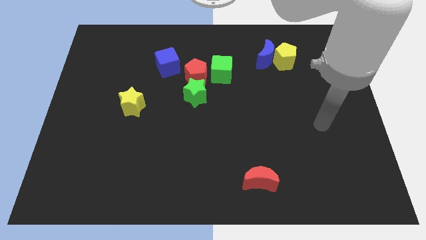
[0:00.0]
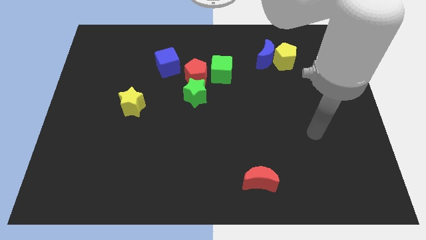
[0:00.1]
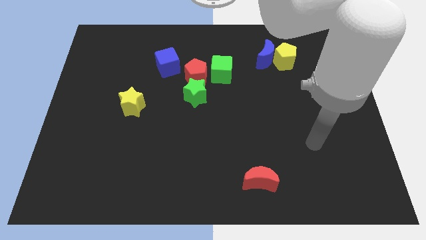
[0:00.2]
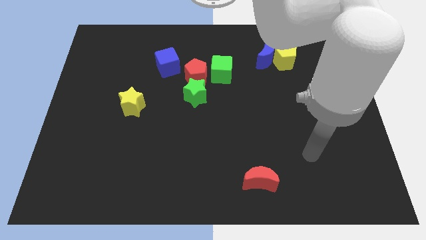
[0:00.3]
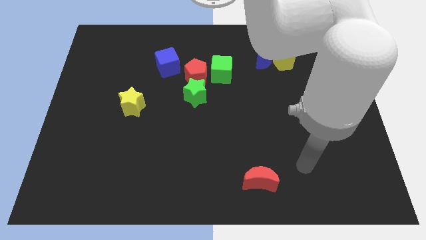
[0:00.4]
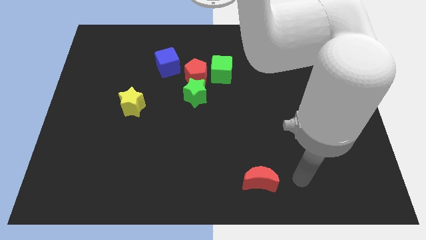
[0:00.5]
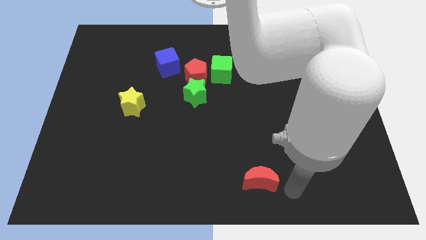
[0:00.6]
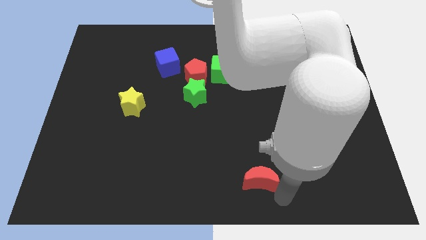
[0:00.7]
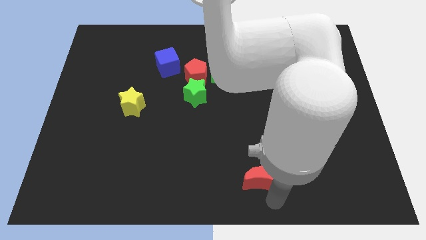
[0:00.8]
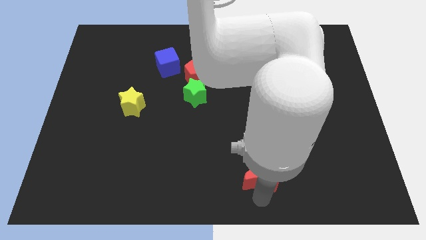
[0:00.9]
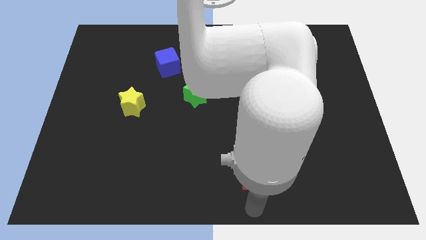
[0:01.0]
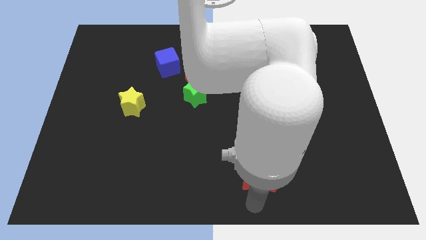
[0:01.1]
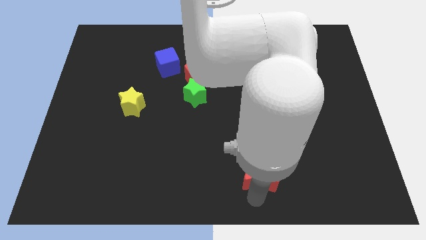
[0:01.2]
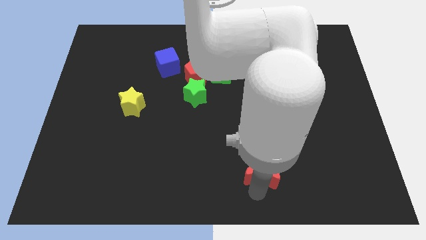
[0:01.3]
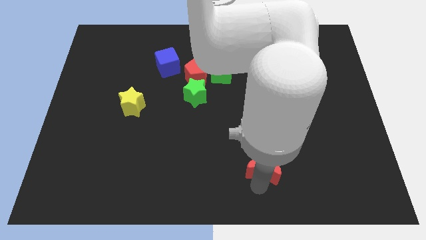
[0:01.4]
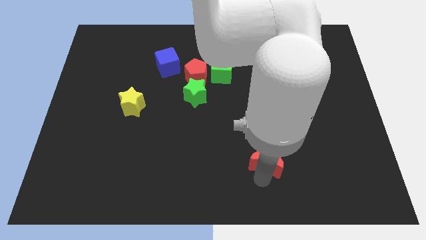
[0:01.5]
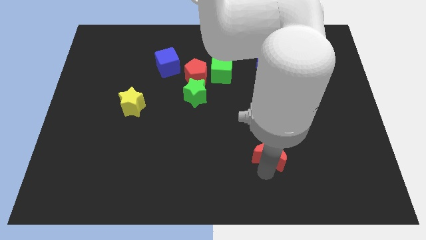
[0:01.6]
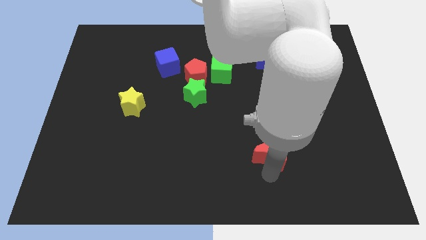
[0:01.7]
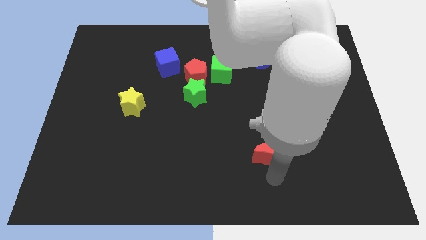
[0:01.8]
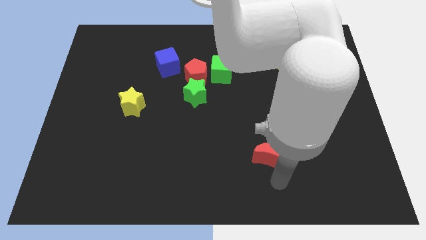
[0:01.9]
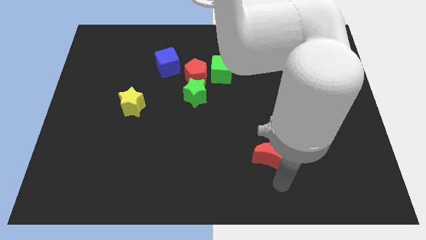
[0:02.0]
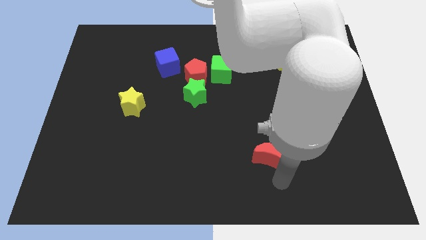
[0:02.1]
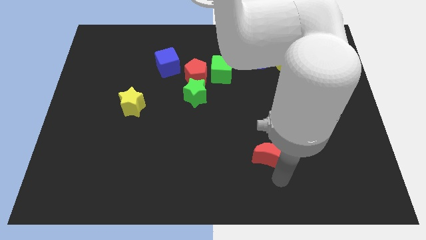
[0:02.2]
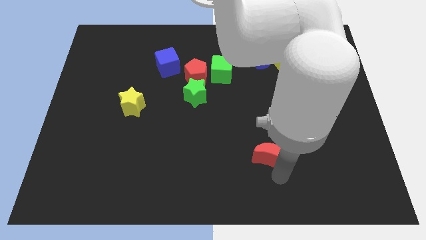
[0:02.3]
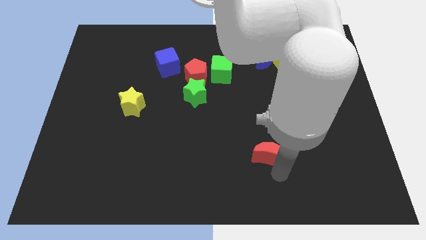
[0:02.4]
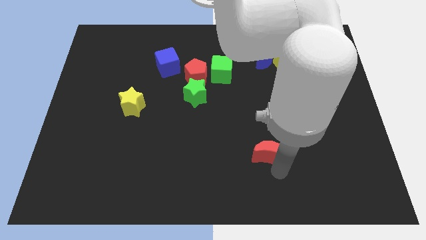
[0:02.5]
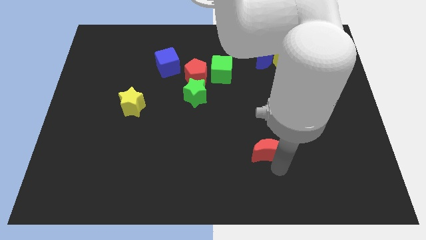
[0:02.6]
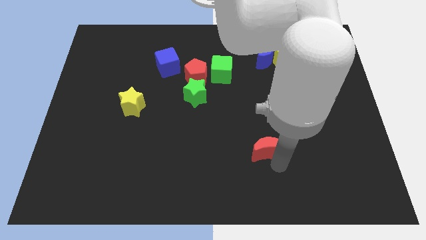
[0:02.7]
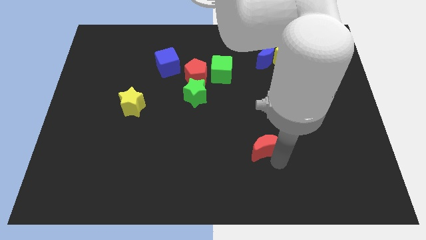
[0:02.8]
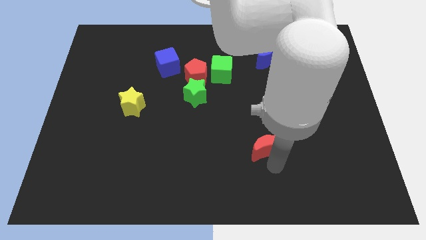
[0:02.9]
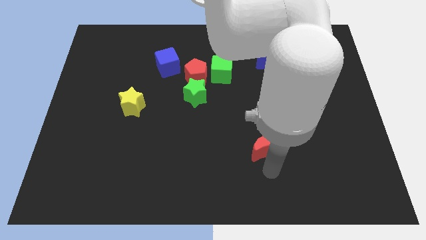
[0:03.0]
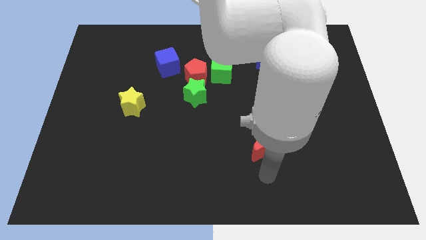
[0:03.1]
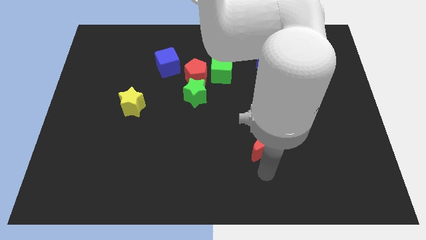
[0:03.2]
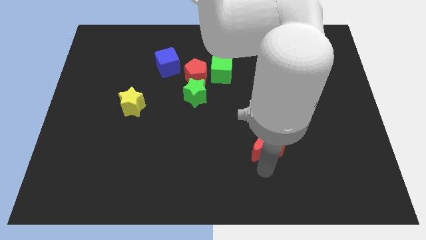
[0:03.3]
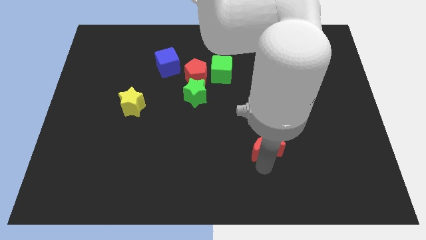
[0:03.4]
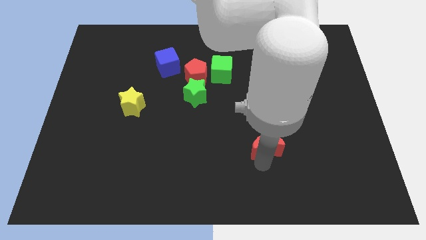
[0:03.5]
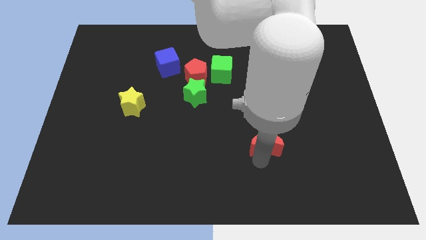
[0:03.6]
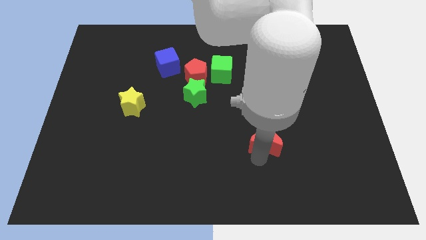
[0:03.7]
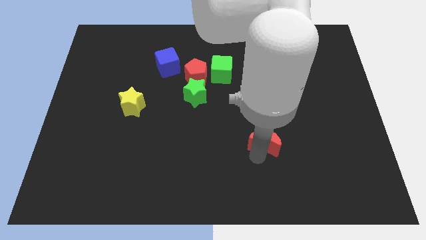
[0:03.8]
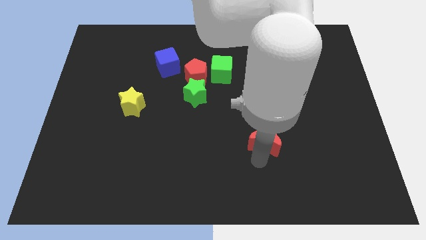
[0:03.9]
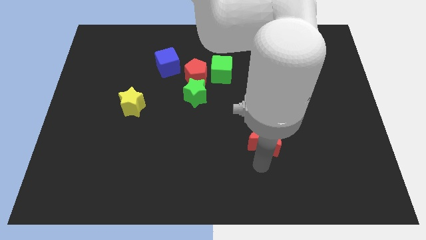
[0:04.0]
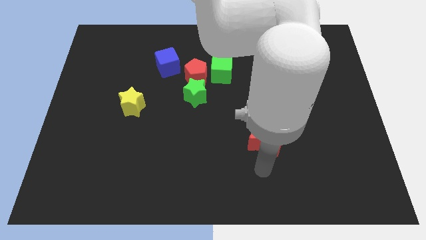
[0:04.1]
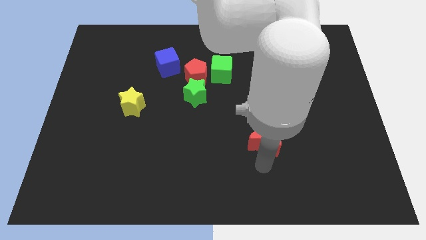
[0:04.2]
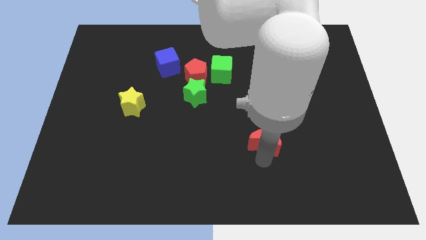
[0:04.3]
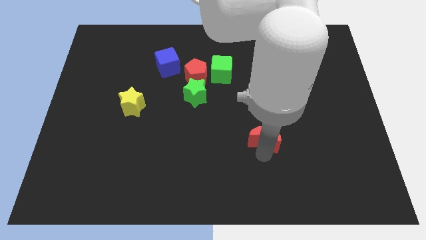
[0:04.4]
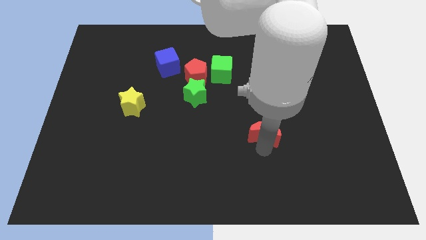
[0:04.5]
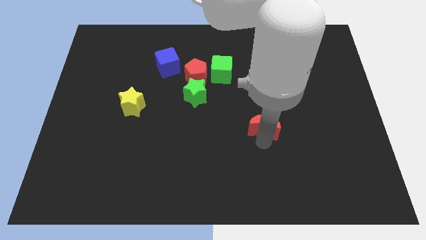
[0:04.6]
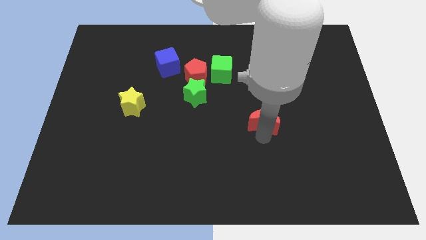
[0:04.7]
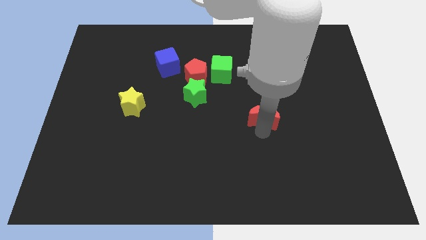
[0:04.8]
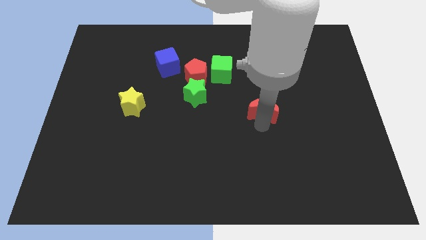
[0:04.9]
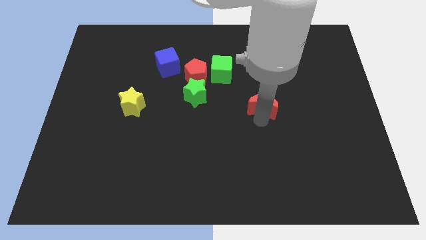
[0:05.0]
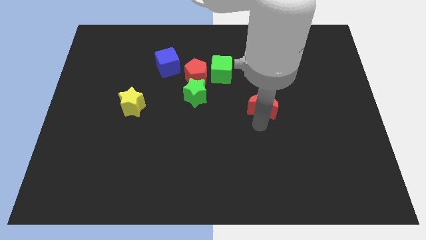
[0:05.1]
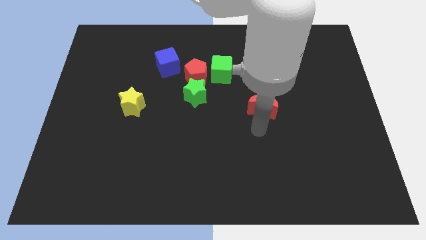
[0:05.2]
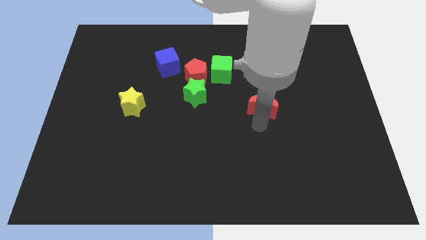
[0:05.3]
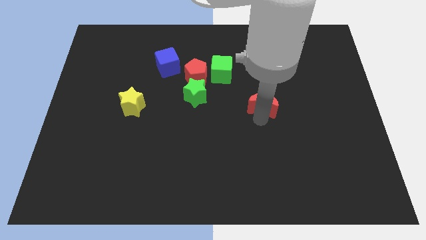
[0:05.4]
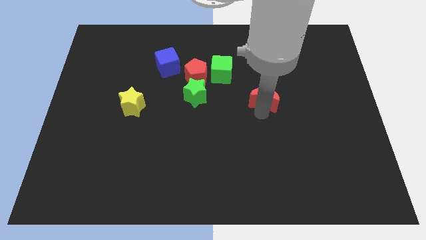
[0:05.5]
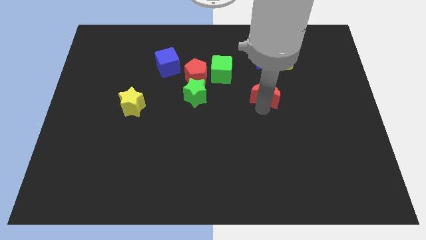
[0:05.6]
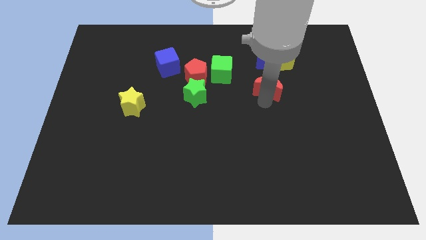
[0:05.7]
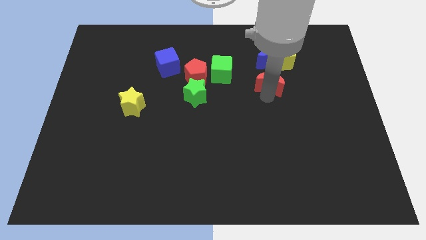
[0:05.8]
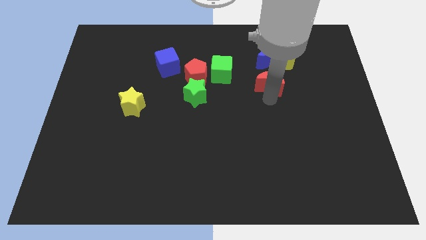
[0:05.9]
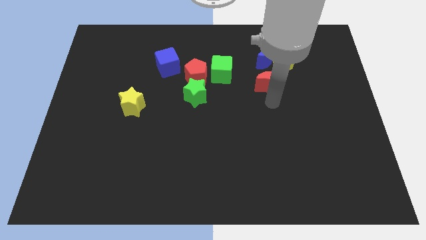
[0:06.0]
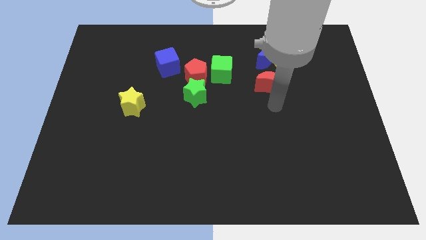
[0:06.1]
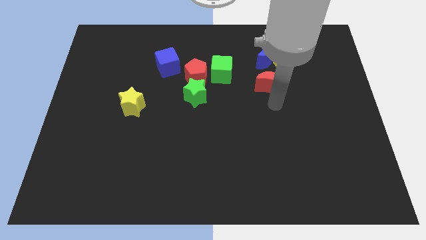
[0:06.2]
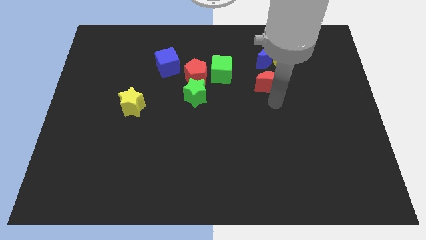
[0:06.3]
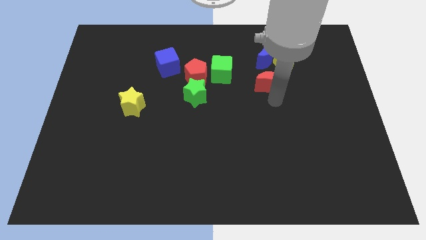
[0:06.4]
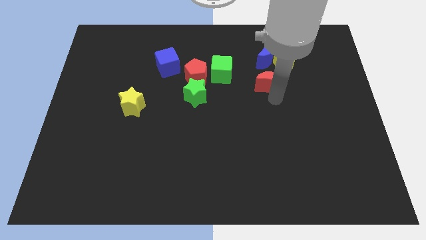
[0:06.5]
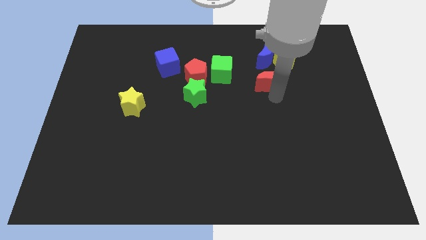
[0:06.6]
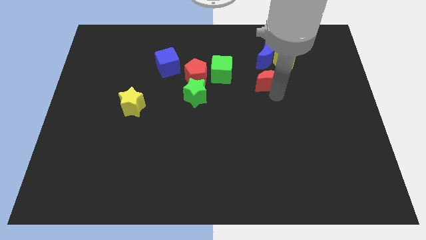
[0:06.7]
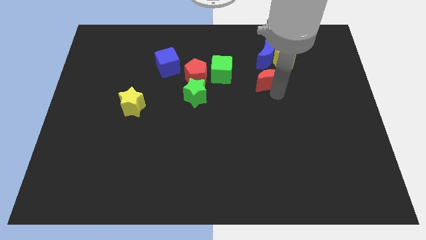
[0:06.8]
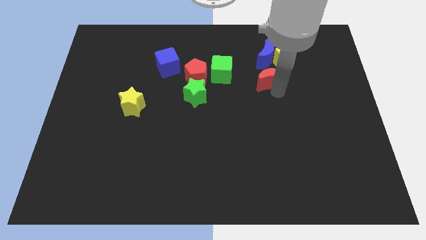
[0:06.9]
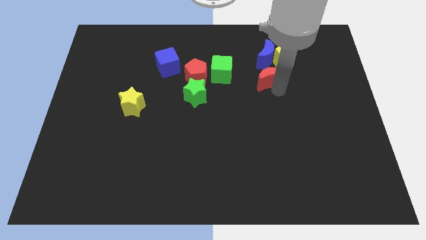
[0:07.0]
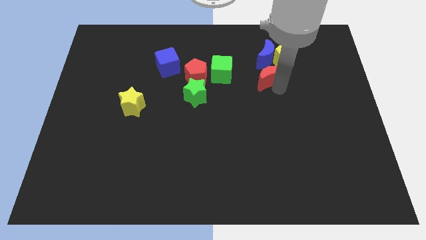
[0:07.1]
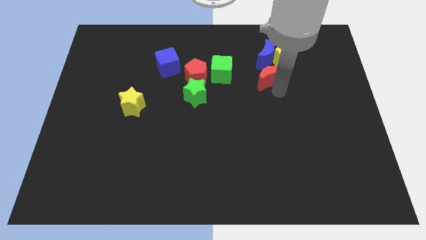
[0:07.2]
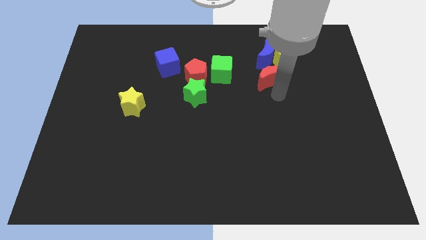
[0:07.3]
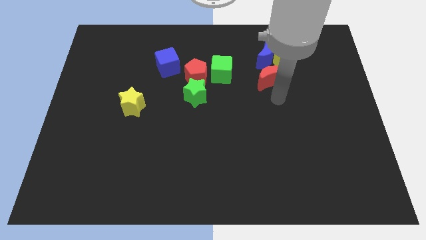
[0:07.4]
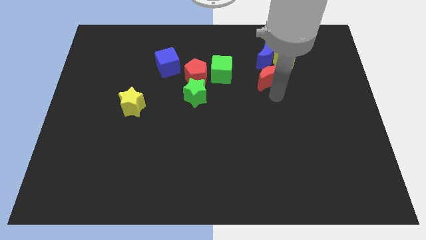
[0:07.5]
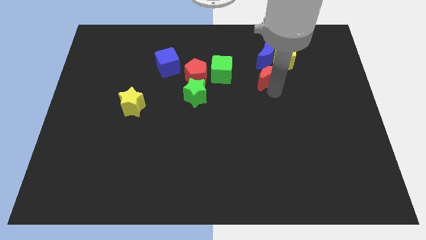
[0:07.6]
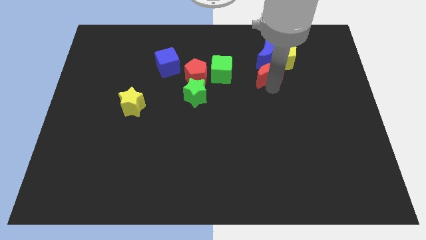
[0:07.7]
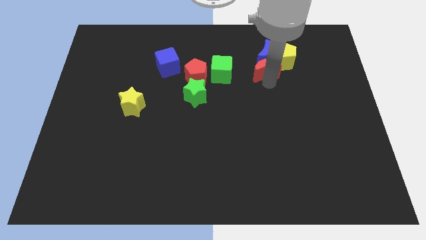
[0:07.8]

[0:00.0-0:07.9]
push the red moon to the blue moon
